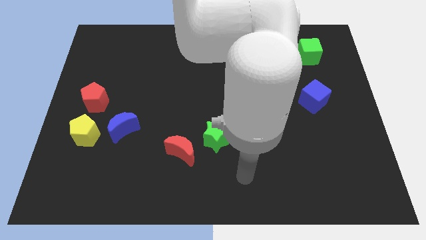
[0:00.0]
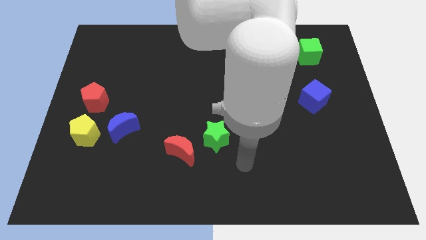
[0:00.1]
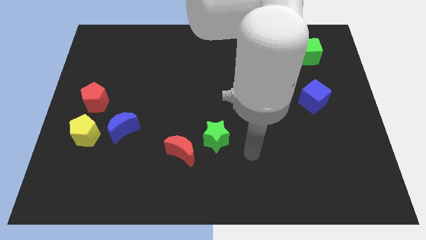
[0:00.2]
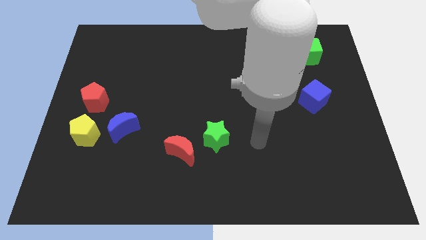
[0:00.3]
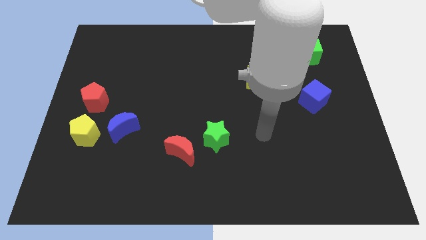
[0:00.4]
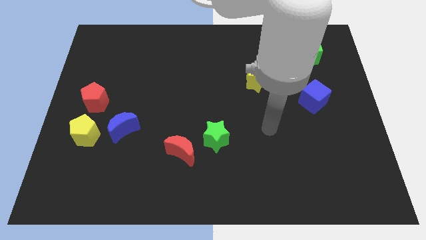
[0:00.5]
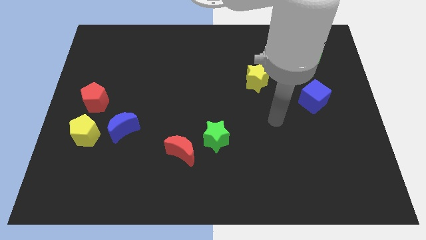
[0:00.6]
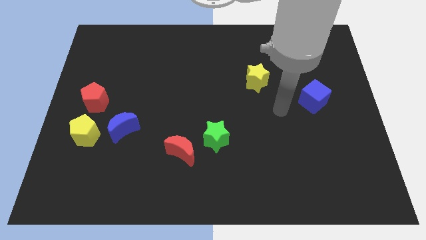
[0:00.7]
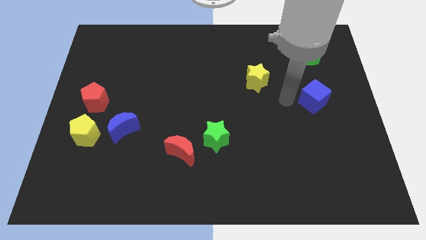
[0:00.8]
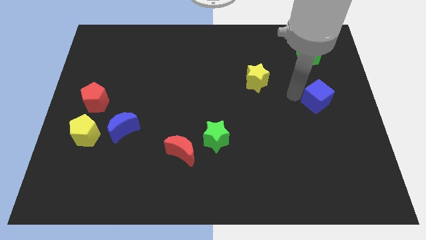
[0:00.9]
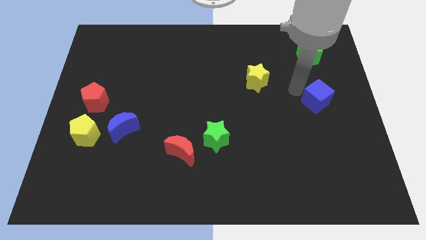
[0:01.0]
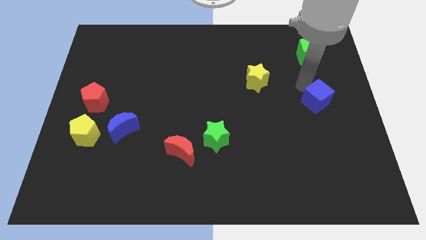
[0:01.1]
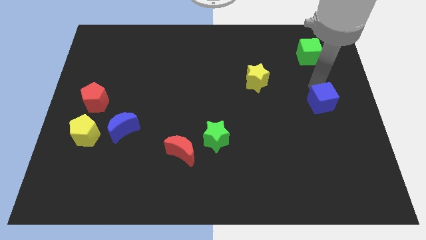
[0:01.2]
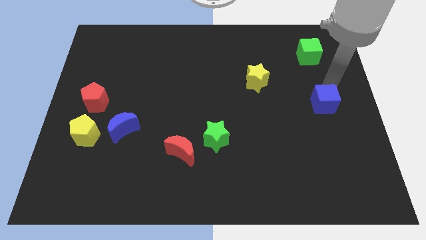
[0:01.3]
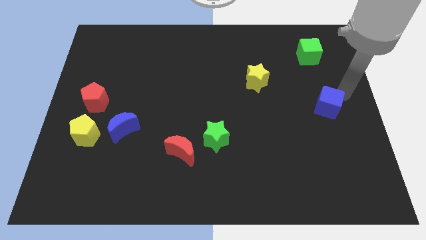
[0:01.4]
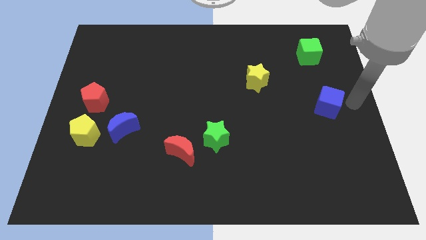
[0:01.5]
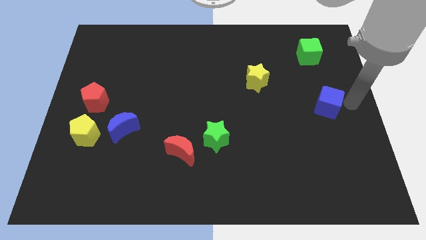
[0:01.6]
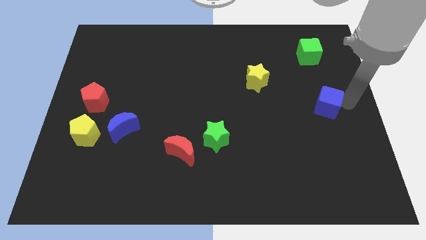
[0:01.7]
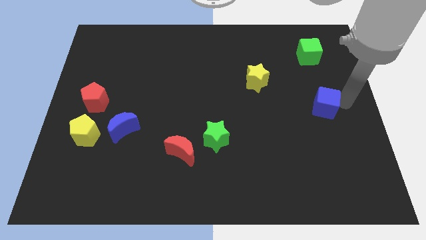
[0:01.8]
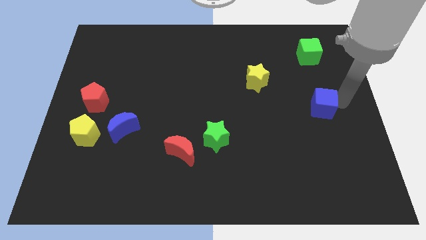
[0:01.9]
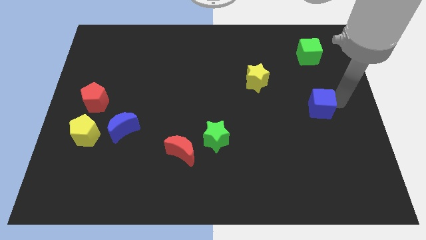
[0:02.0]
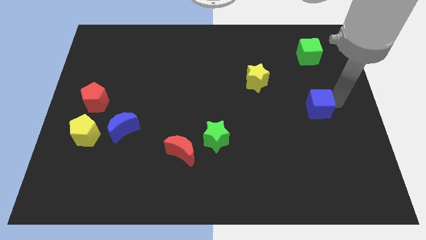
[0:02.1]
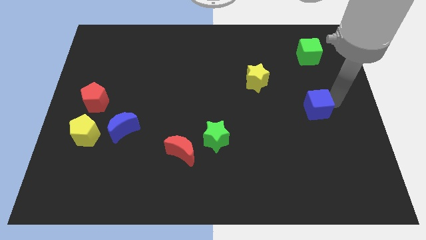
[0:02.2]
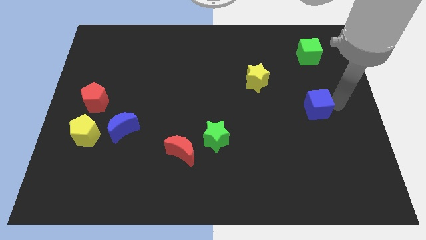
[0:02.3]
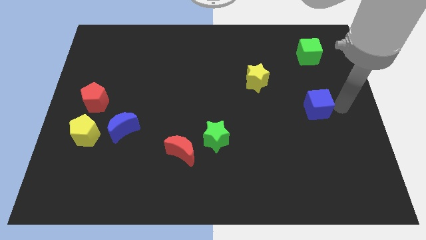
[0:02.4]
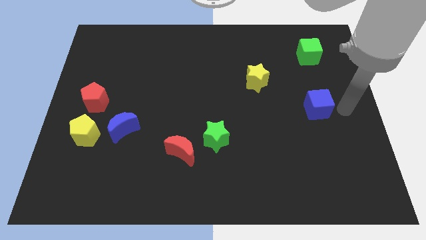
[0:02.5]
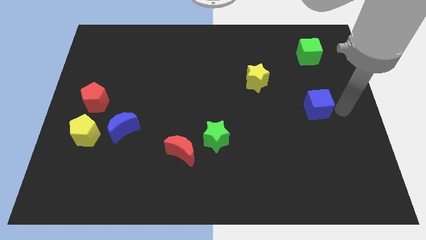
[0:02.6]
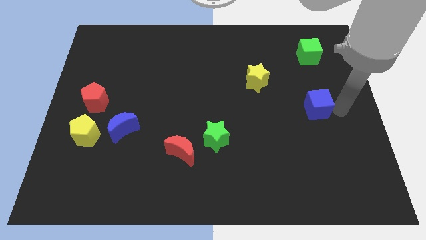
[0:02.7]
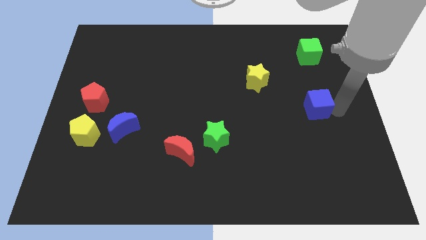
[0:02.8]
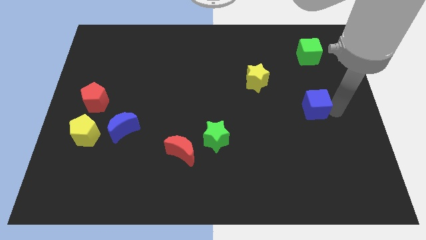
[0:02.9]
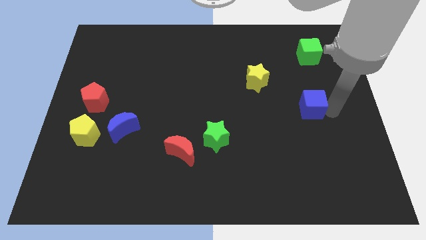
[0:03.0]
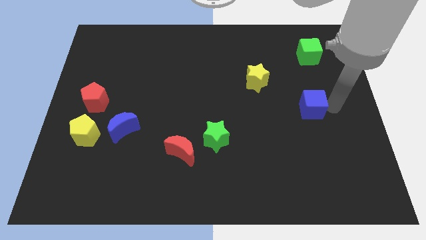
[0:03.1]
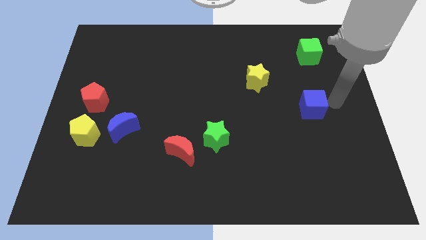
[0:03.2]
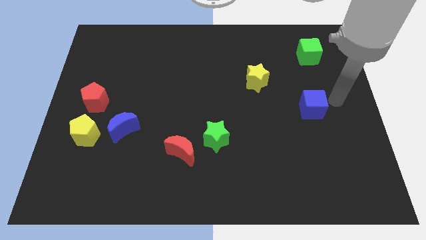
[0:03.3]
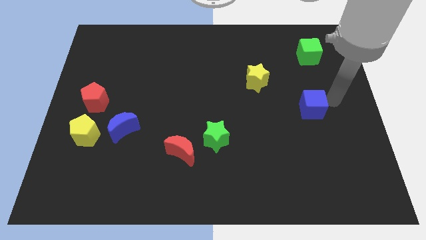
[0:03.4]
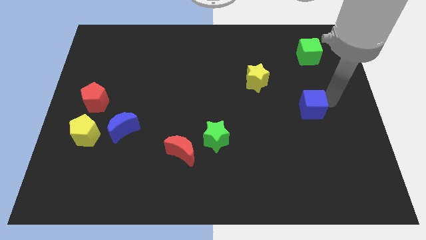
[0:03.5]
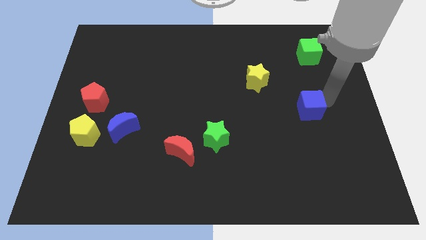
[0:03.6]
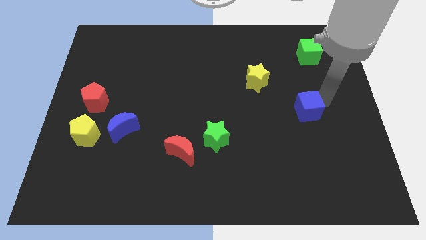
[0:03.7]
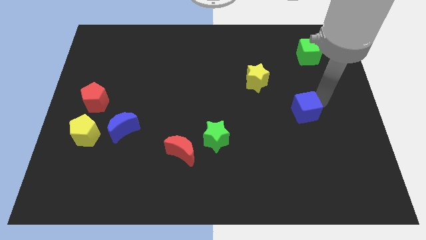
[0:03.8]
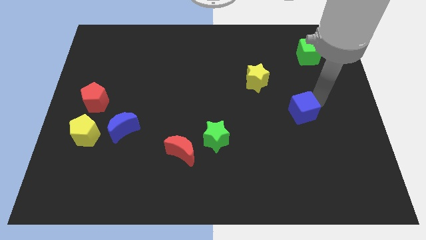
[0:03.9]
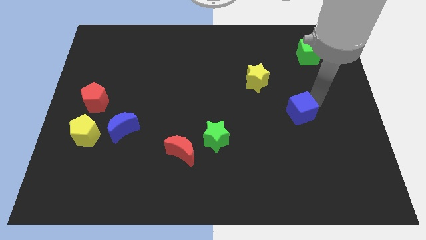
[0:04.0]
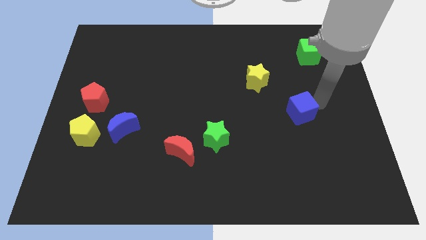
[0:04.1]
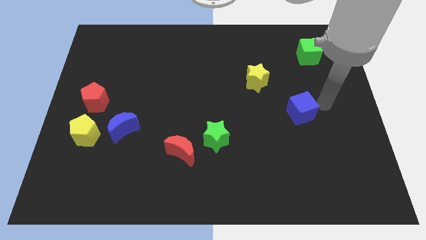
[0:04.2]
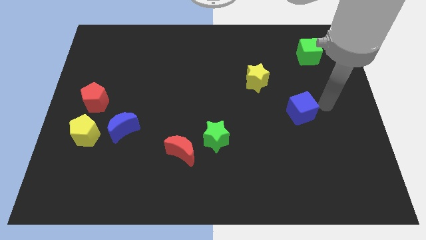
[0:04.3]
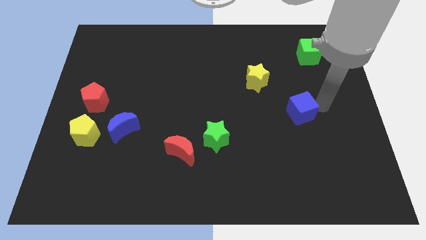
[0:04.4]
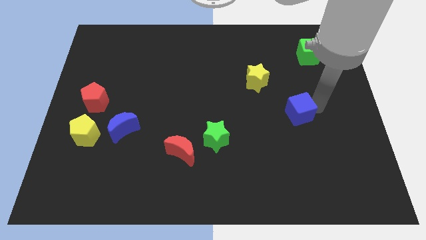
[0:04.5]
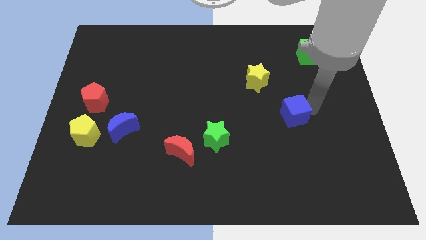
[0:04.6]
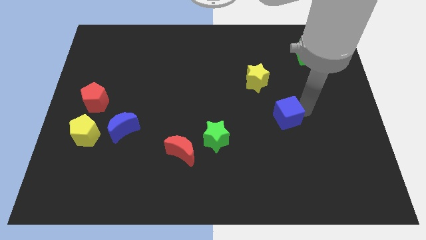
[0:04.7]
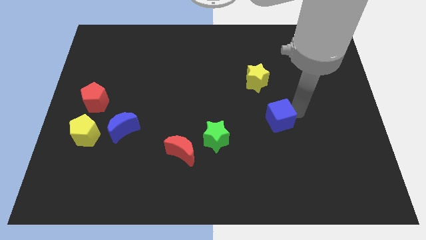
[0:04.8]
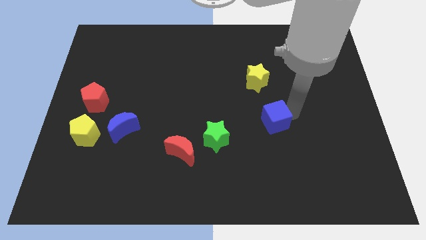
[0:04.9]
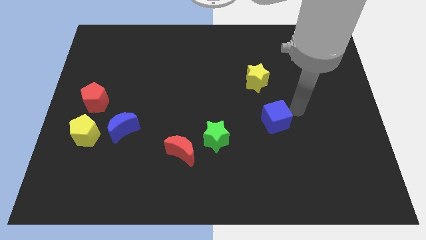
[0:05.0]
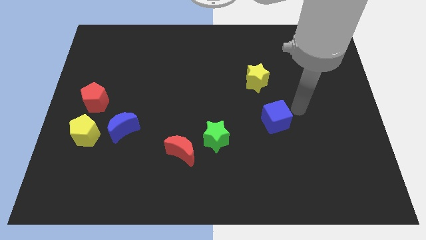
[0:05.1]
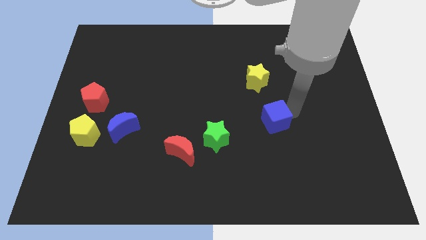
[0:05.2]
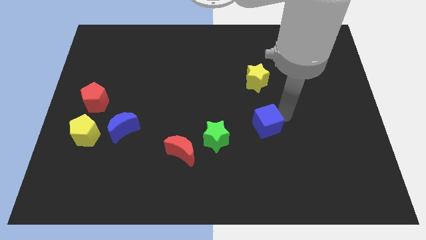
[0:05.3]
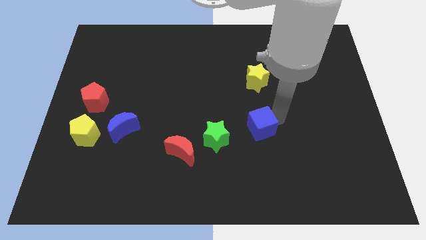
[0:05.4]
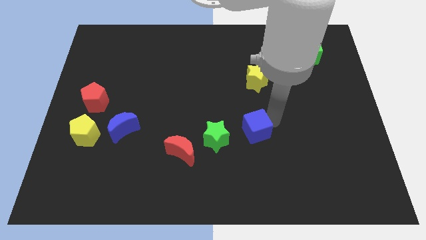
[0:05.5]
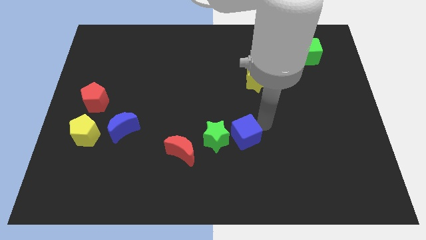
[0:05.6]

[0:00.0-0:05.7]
move the blue cube to the right of the red moon

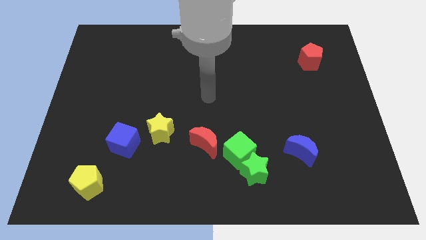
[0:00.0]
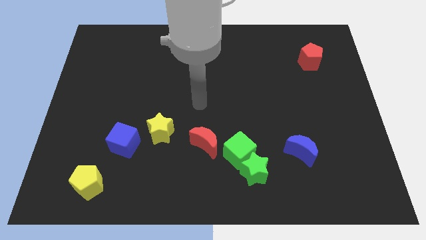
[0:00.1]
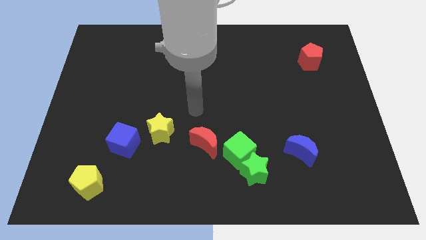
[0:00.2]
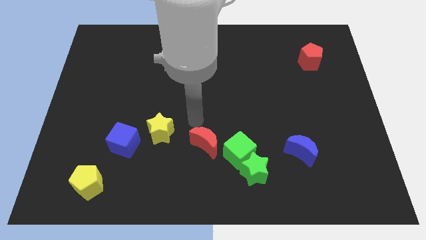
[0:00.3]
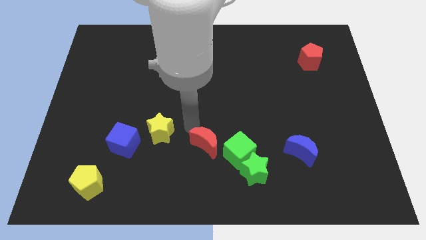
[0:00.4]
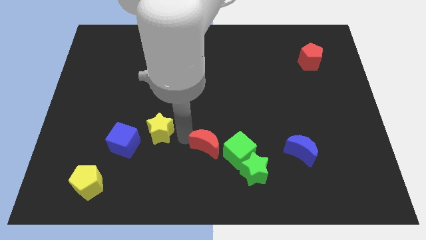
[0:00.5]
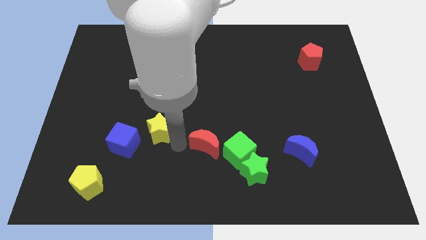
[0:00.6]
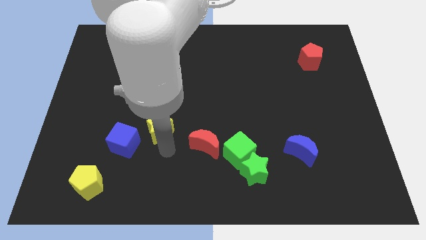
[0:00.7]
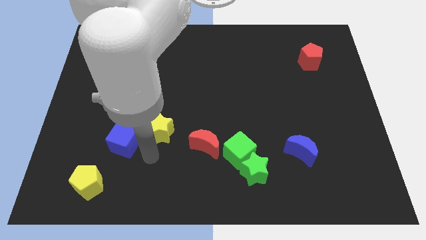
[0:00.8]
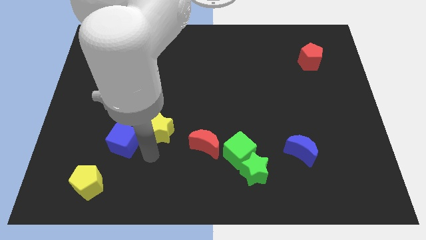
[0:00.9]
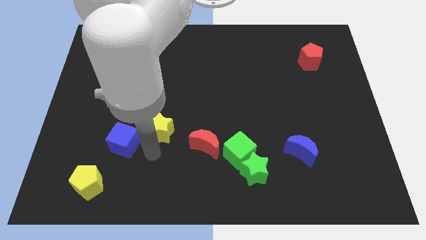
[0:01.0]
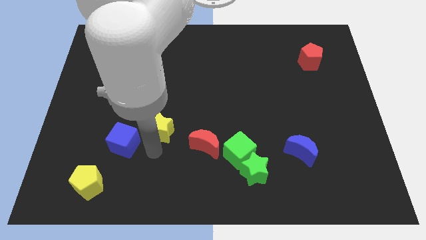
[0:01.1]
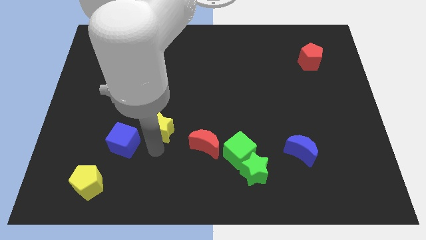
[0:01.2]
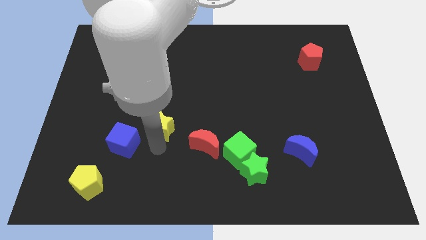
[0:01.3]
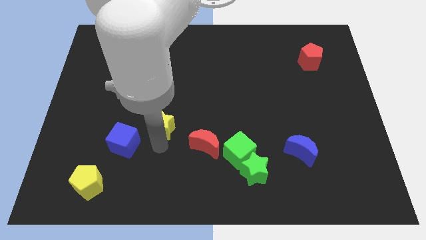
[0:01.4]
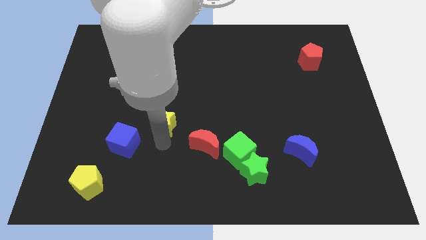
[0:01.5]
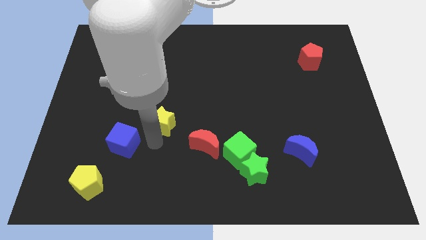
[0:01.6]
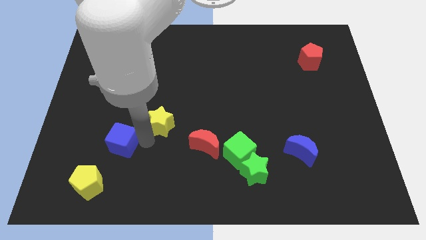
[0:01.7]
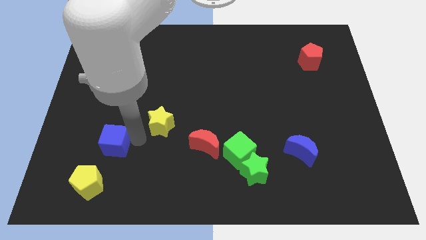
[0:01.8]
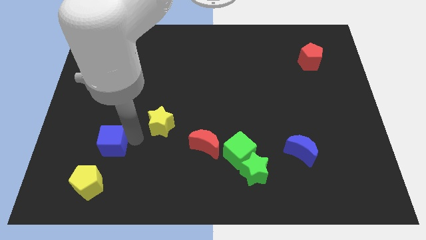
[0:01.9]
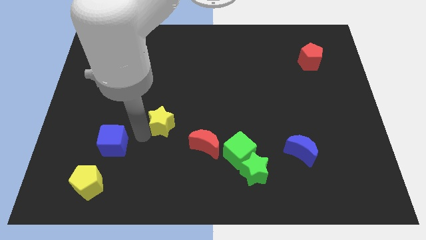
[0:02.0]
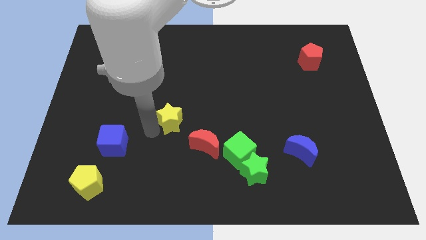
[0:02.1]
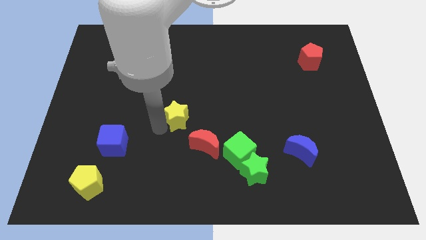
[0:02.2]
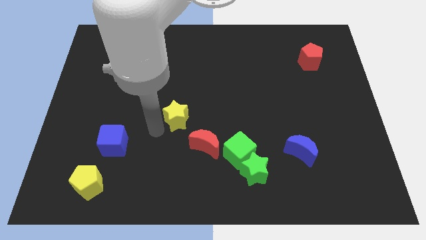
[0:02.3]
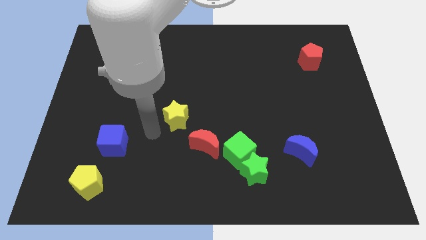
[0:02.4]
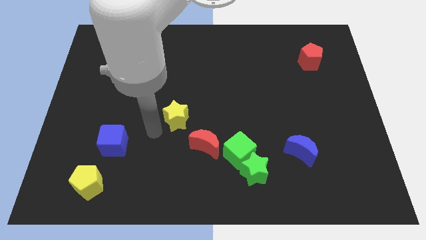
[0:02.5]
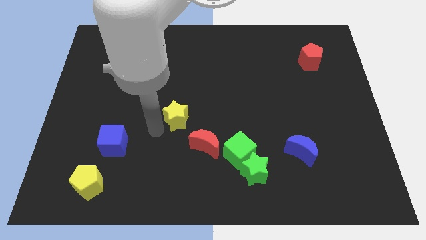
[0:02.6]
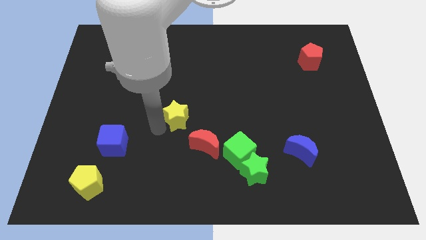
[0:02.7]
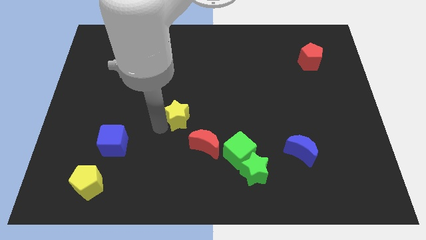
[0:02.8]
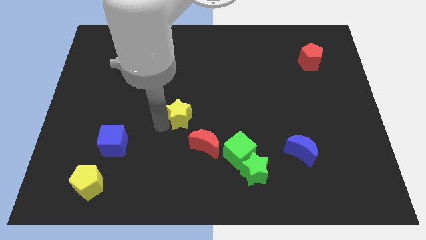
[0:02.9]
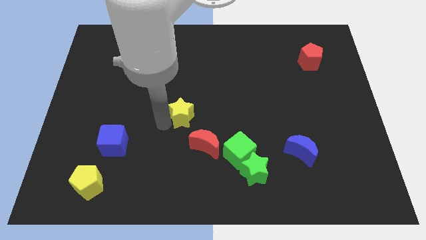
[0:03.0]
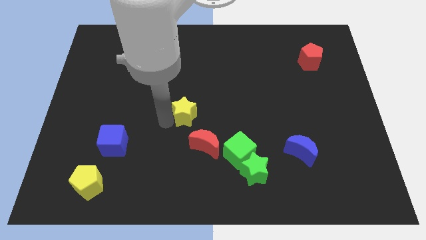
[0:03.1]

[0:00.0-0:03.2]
slide the yellow star to the top of the red moon
